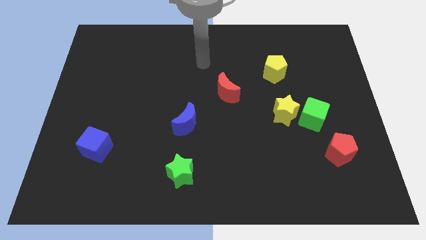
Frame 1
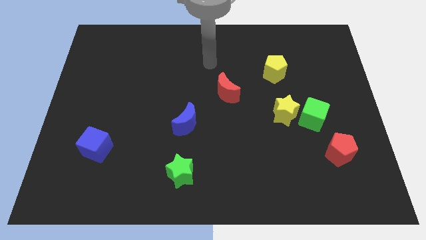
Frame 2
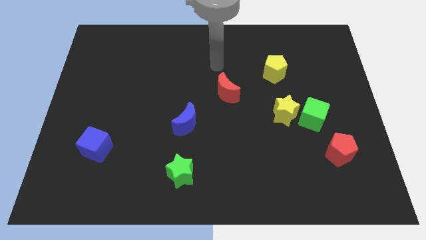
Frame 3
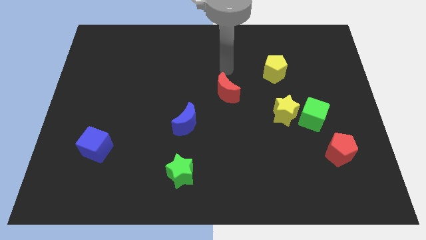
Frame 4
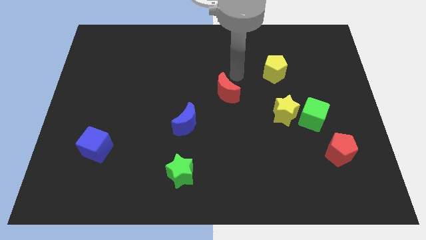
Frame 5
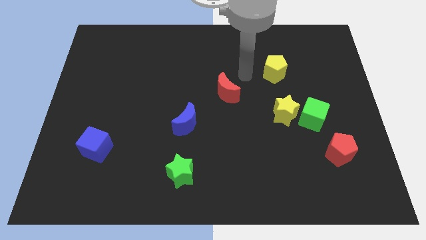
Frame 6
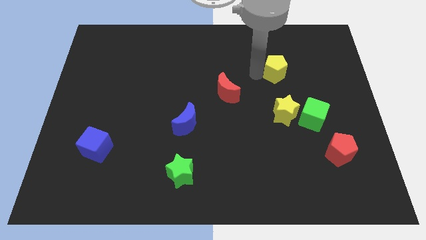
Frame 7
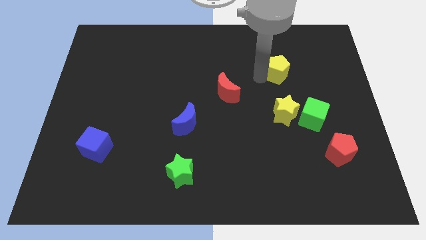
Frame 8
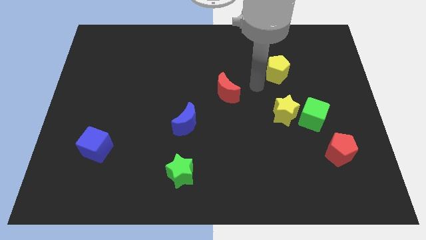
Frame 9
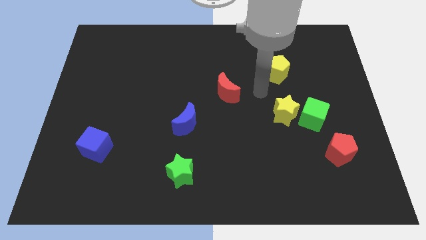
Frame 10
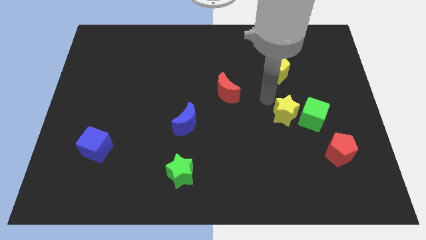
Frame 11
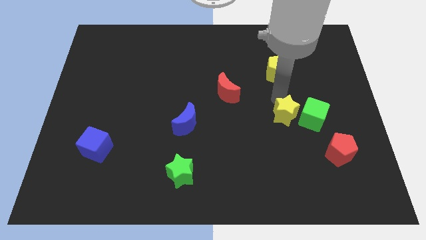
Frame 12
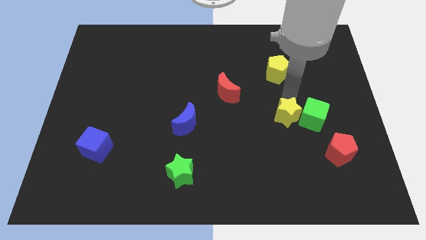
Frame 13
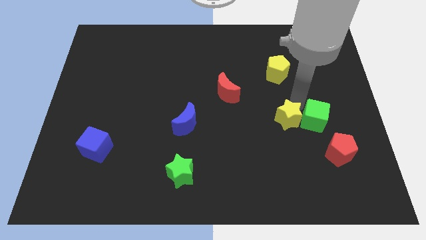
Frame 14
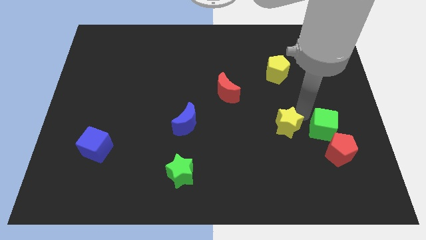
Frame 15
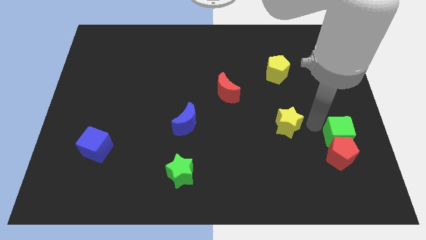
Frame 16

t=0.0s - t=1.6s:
pull the yellow star apart from the green cube

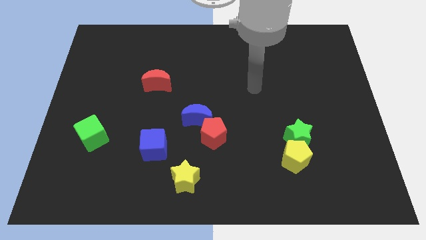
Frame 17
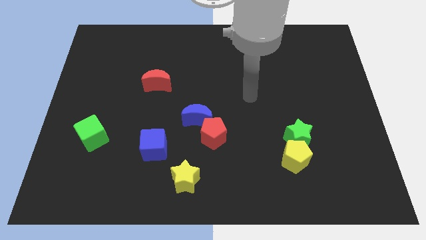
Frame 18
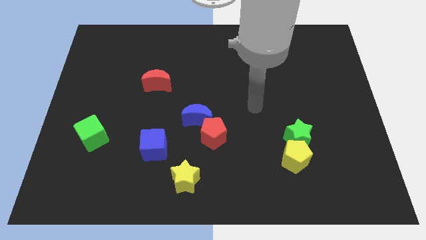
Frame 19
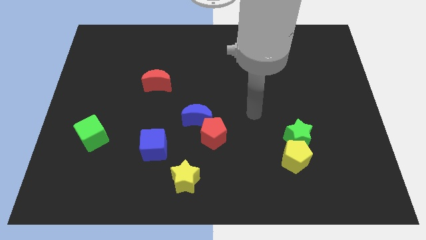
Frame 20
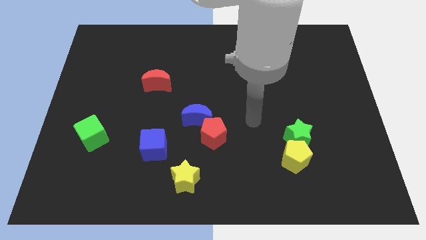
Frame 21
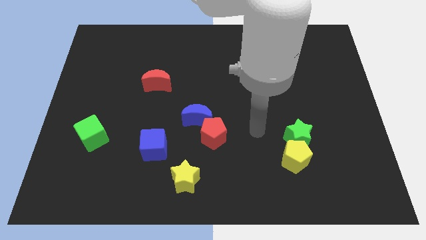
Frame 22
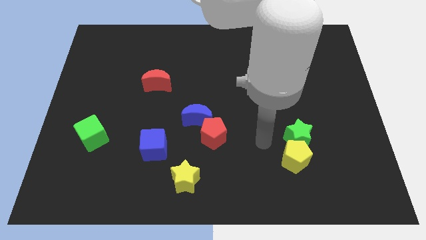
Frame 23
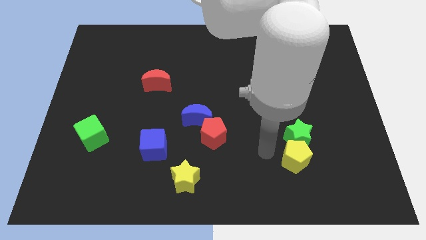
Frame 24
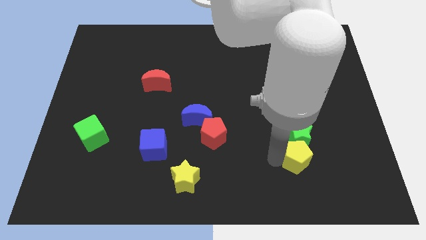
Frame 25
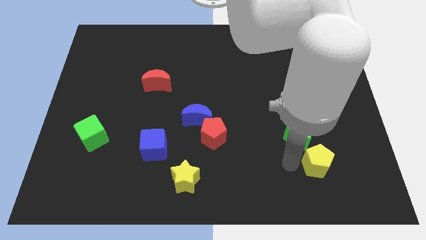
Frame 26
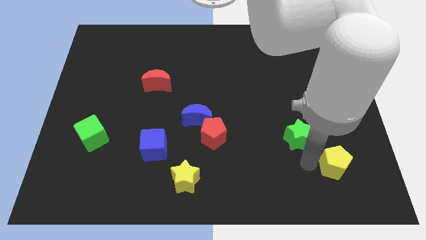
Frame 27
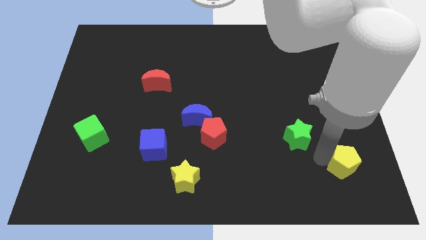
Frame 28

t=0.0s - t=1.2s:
separate the green star from the yellow pentagon

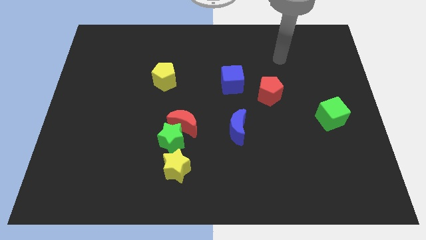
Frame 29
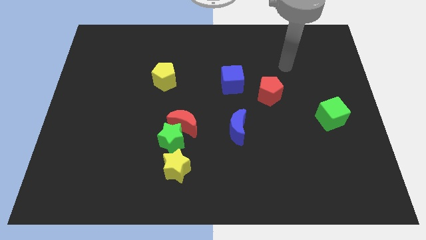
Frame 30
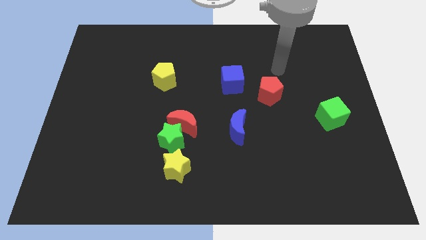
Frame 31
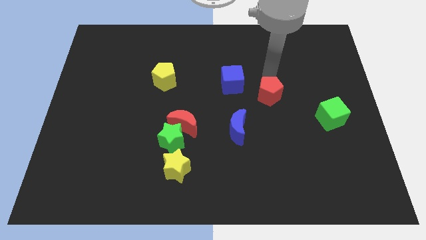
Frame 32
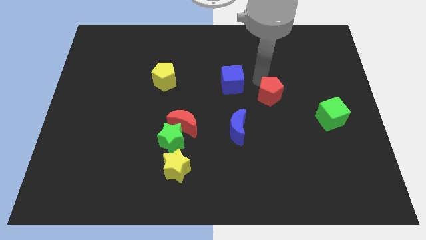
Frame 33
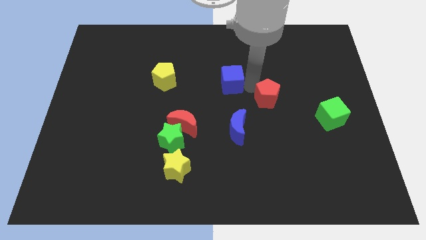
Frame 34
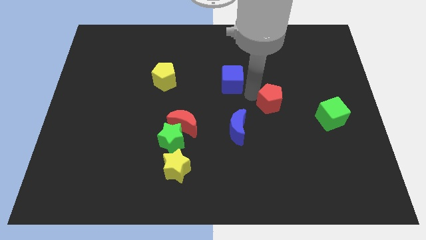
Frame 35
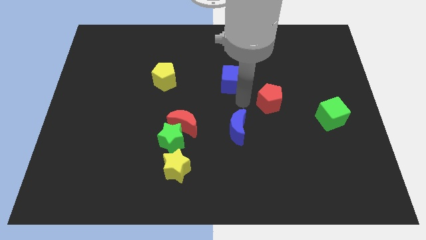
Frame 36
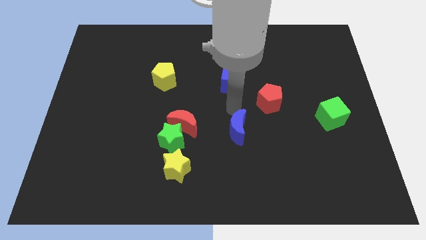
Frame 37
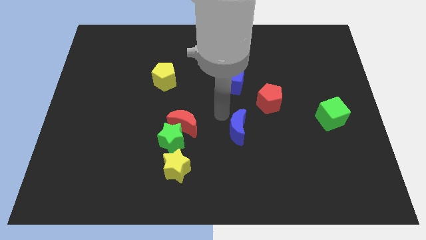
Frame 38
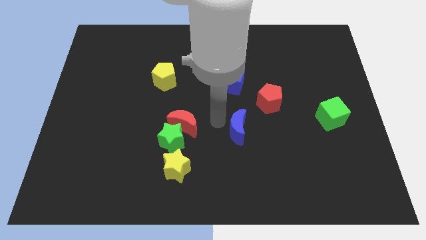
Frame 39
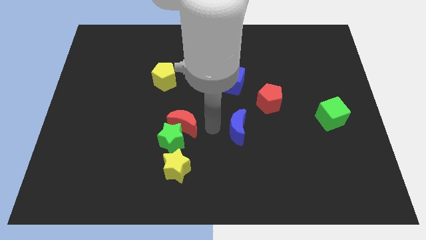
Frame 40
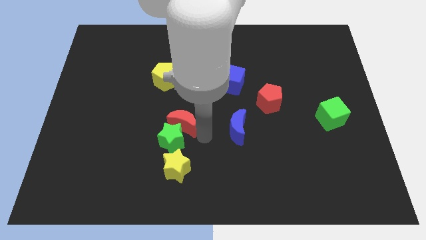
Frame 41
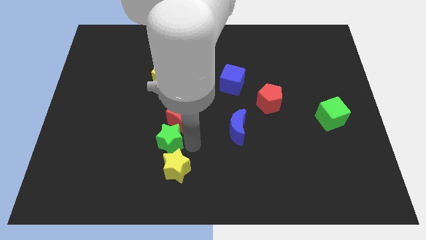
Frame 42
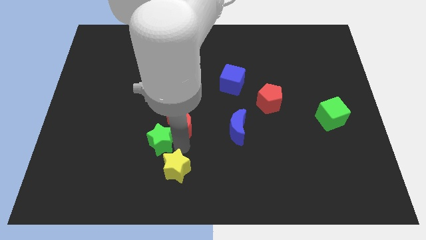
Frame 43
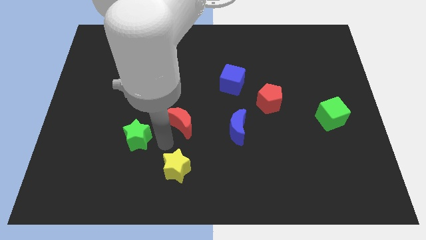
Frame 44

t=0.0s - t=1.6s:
pull the red moon apart from the green star

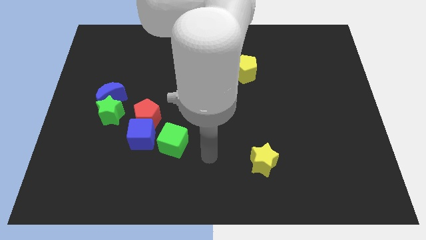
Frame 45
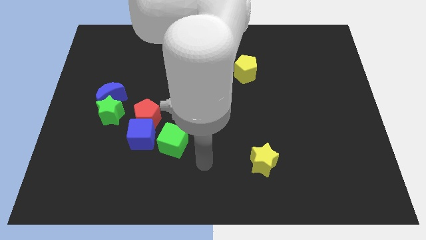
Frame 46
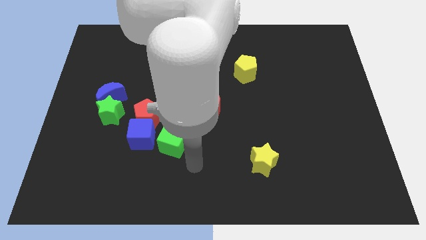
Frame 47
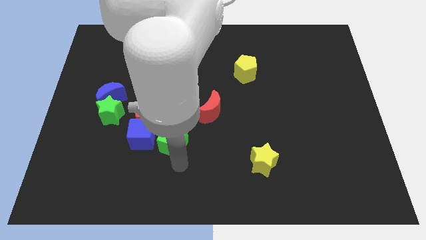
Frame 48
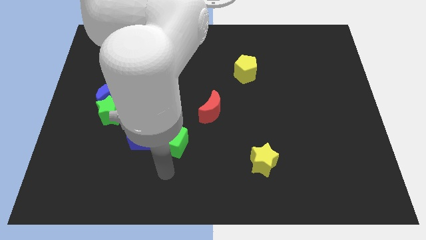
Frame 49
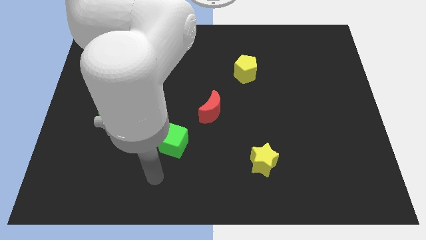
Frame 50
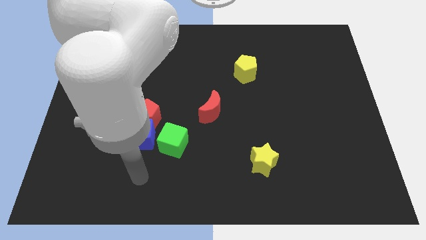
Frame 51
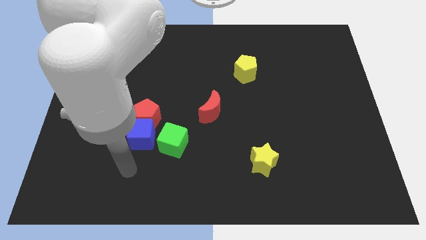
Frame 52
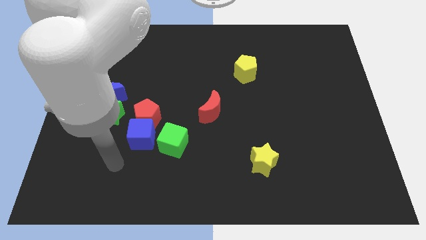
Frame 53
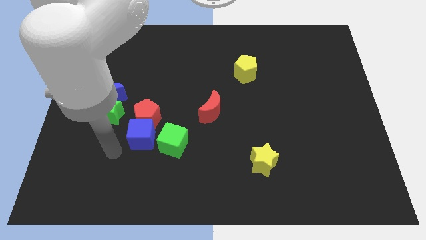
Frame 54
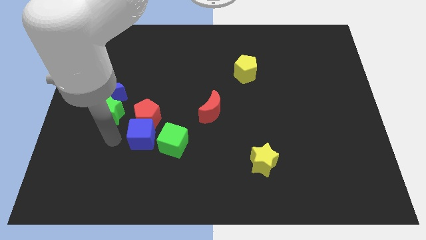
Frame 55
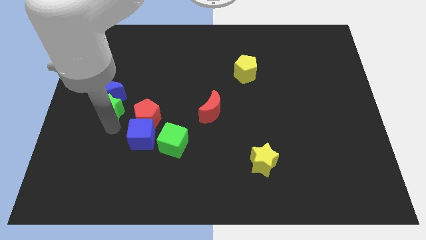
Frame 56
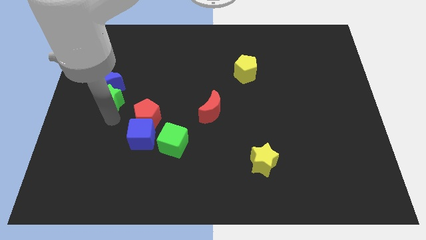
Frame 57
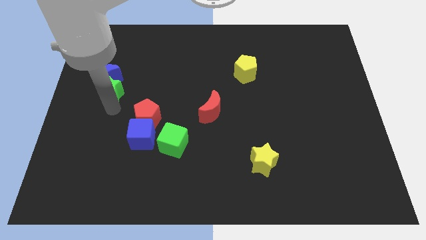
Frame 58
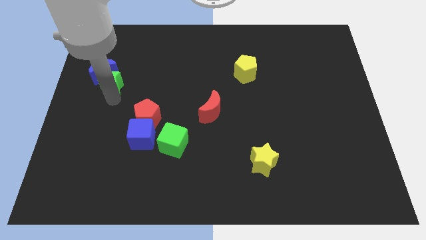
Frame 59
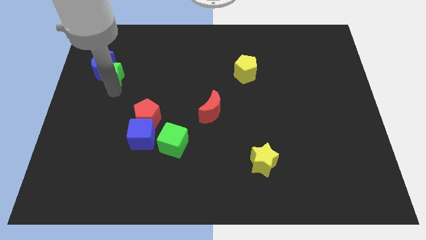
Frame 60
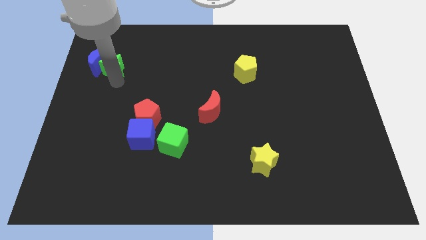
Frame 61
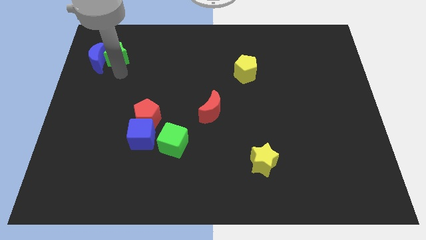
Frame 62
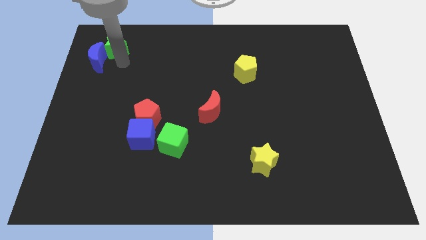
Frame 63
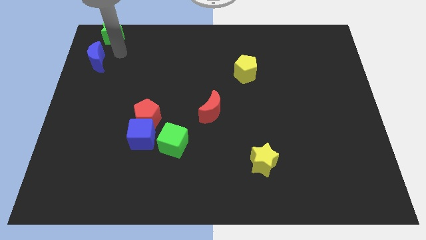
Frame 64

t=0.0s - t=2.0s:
move the blue moon away from the green star

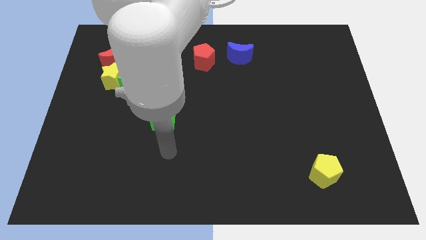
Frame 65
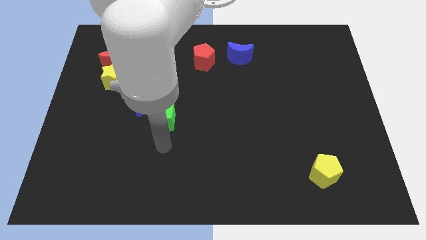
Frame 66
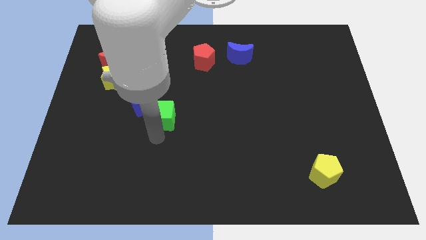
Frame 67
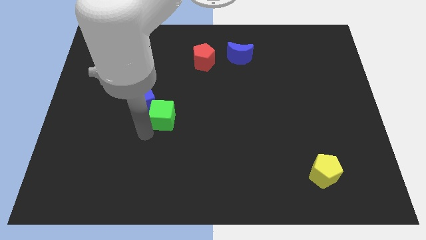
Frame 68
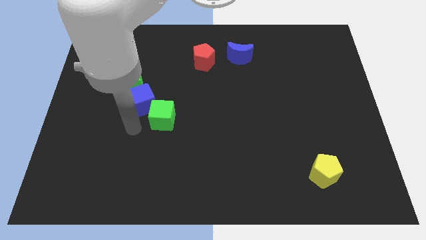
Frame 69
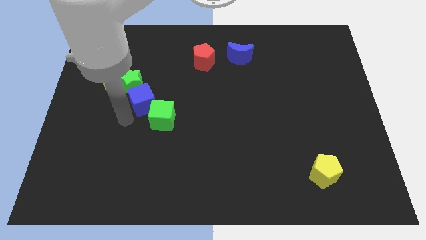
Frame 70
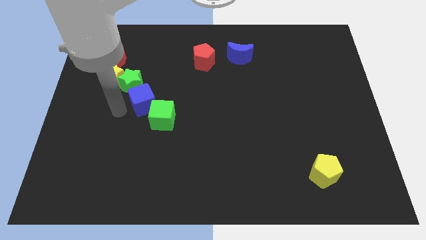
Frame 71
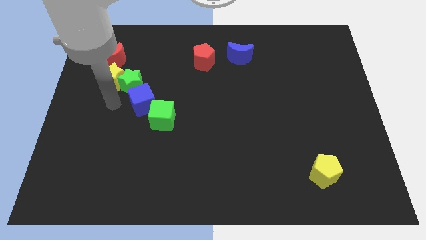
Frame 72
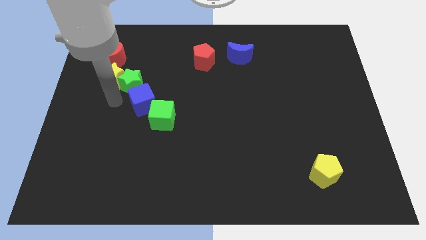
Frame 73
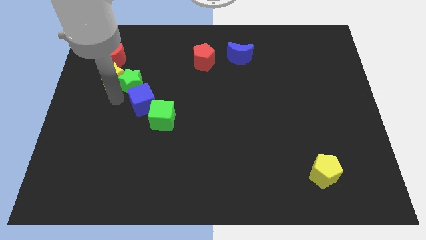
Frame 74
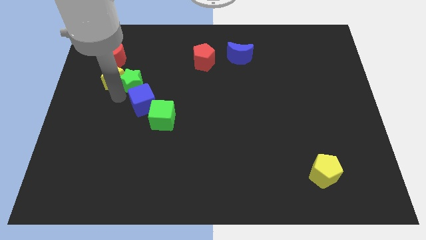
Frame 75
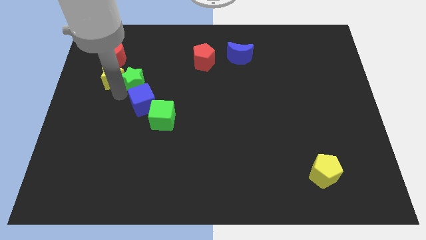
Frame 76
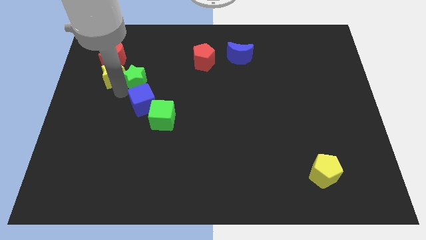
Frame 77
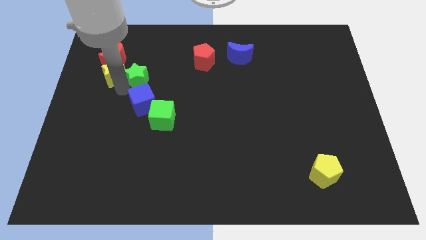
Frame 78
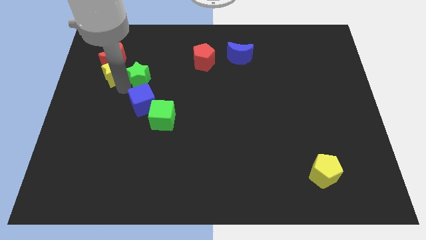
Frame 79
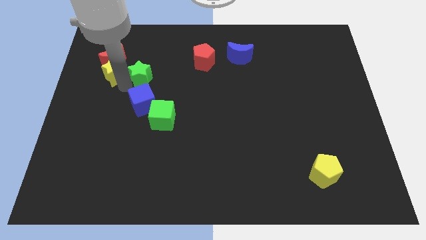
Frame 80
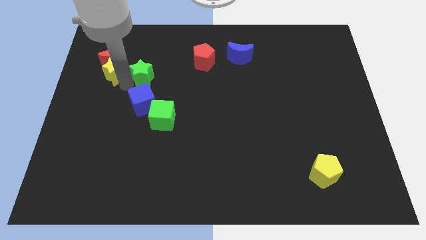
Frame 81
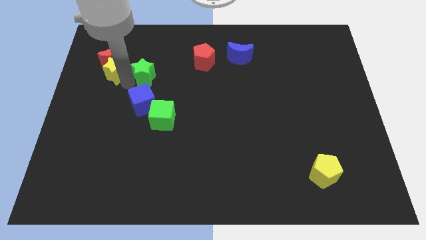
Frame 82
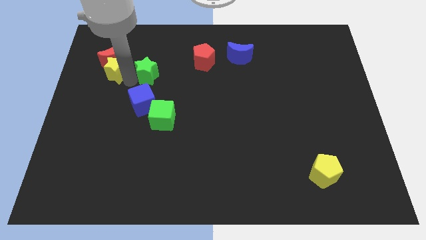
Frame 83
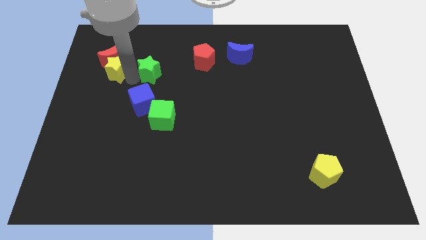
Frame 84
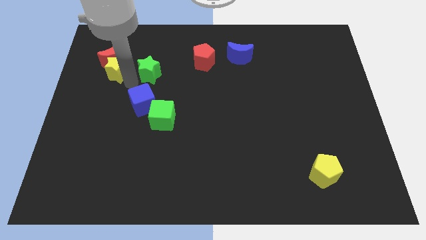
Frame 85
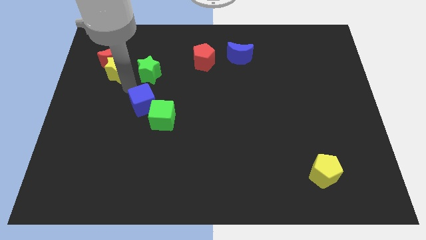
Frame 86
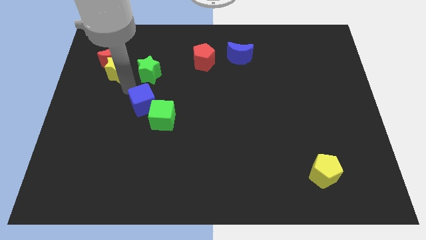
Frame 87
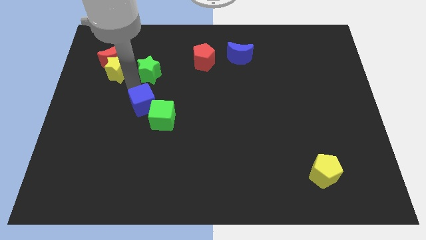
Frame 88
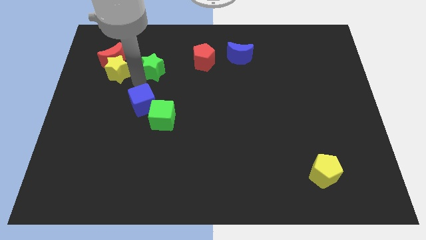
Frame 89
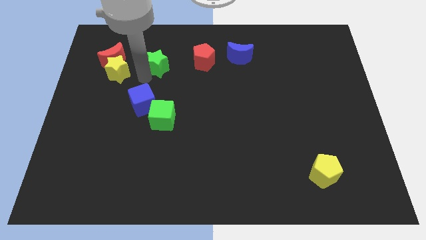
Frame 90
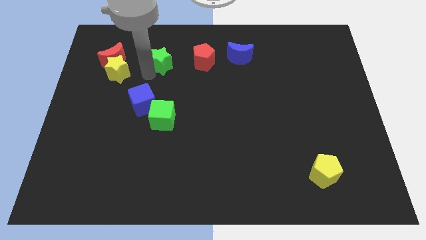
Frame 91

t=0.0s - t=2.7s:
pull the green star apart from the yellow star and blue cube

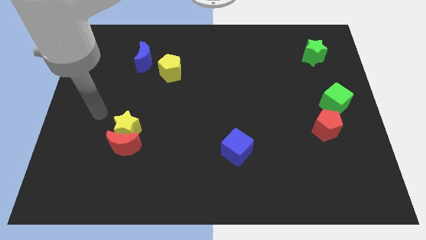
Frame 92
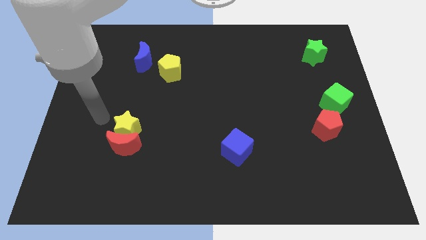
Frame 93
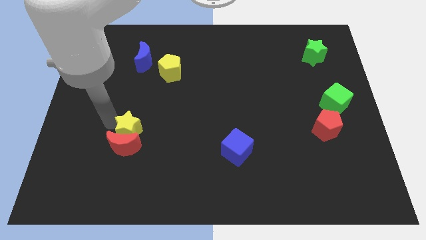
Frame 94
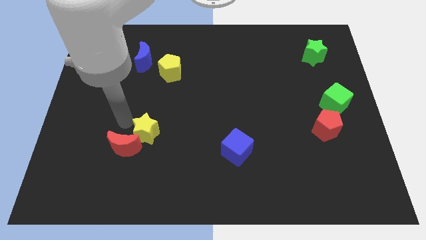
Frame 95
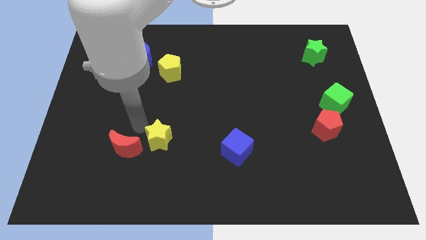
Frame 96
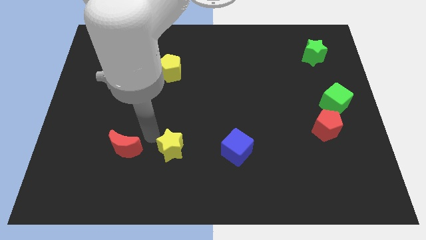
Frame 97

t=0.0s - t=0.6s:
pull the red moon apart from the yellow star
